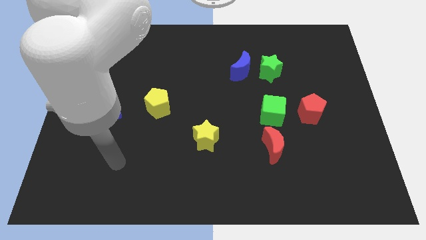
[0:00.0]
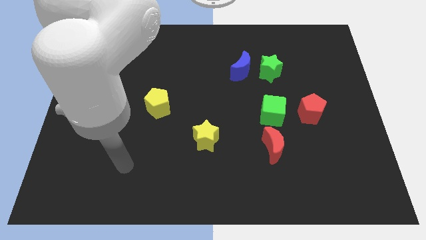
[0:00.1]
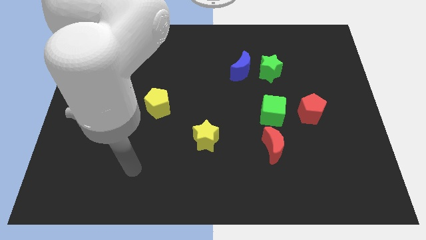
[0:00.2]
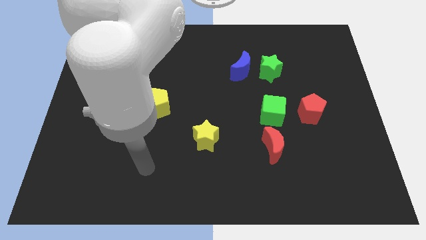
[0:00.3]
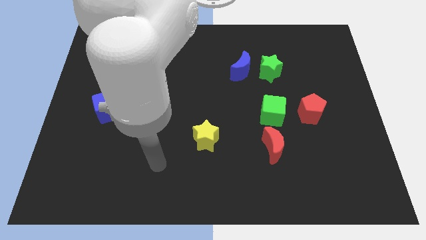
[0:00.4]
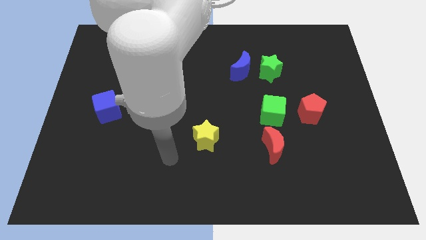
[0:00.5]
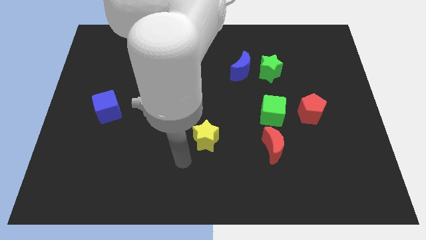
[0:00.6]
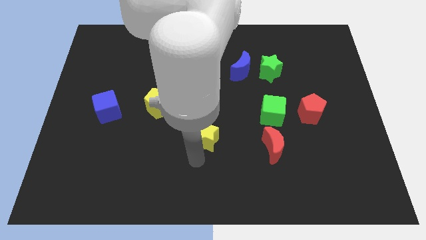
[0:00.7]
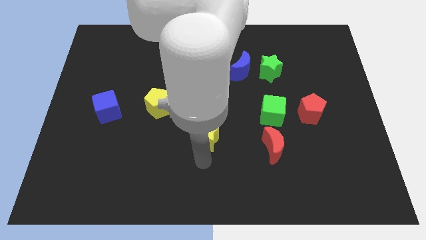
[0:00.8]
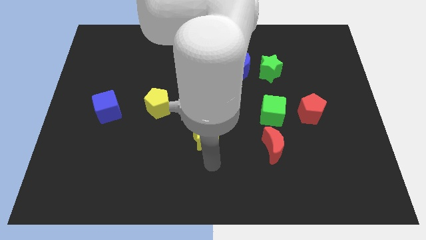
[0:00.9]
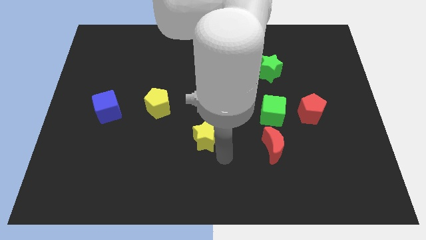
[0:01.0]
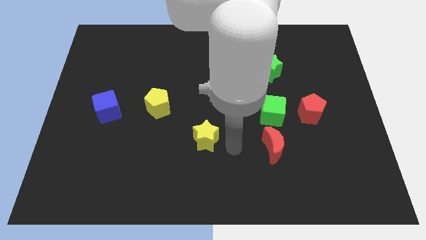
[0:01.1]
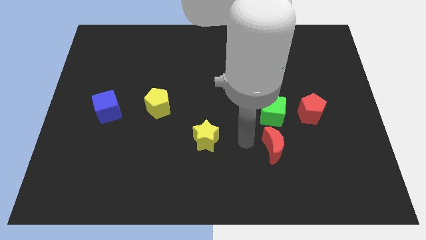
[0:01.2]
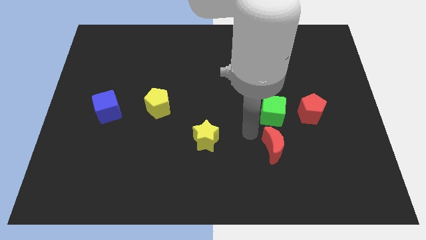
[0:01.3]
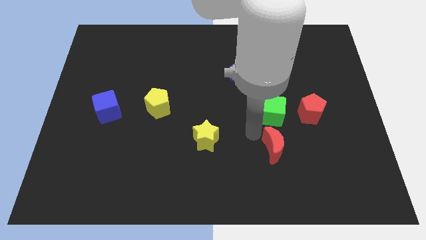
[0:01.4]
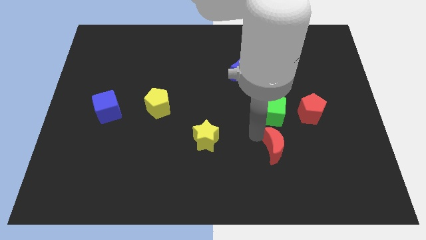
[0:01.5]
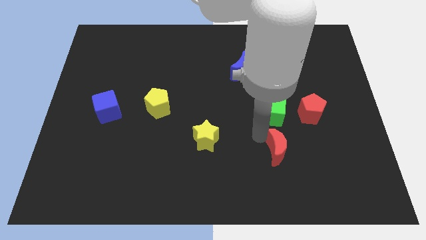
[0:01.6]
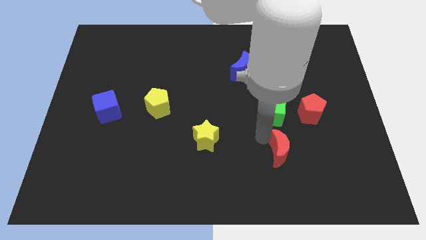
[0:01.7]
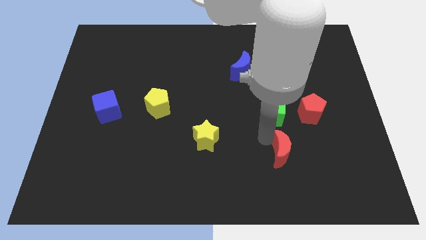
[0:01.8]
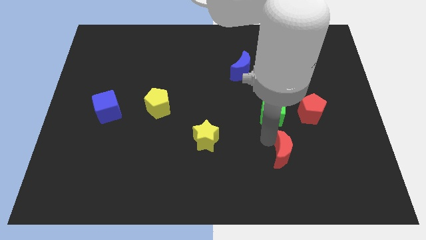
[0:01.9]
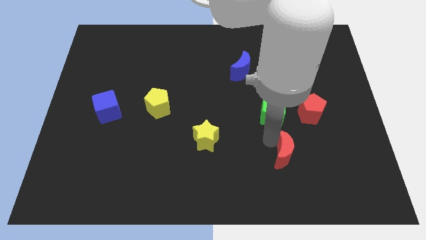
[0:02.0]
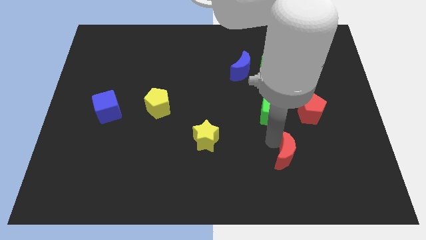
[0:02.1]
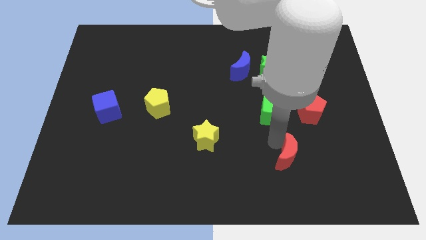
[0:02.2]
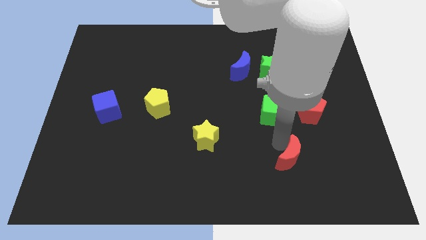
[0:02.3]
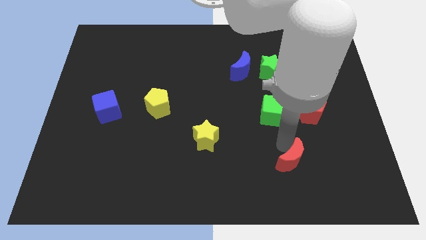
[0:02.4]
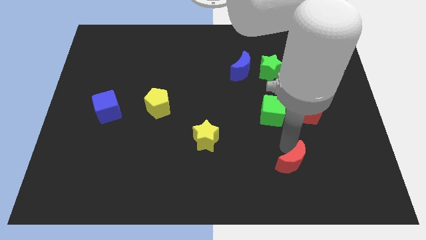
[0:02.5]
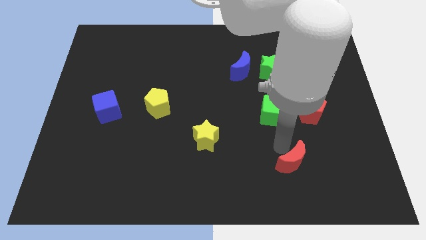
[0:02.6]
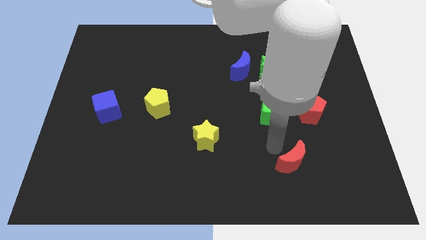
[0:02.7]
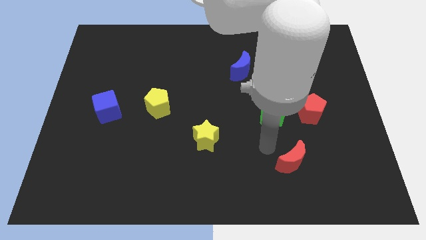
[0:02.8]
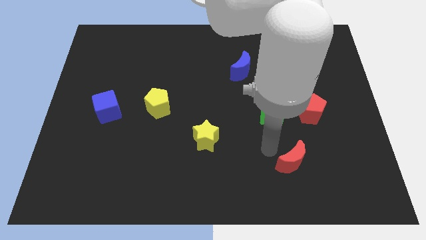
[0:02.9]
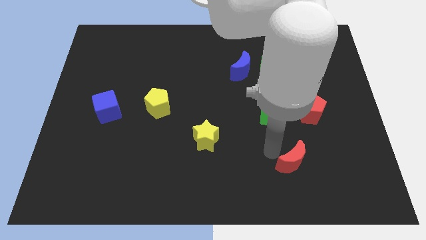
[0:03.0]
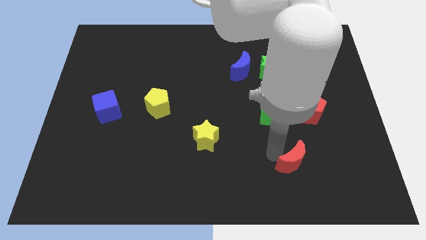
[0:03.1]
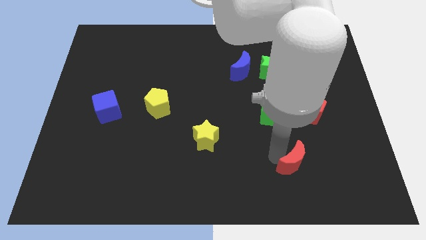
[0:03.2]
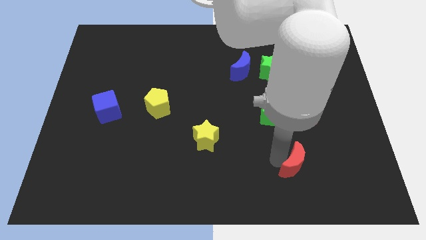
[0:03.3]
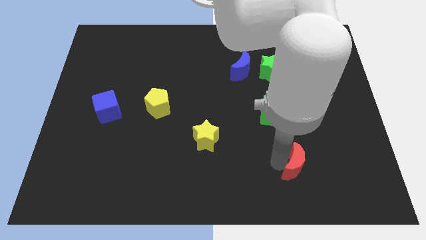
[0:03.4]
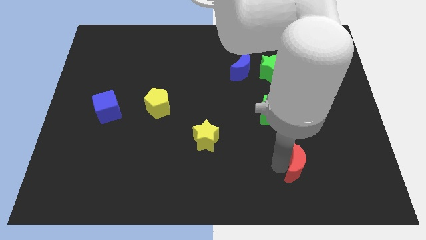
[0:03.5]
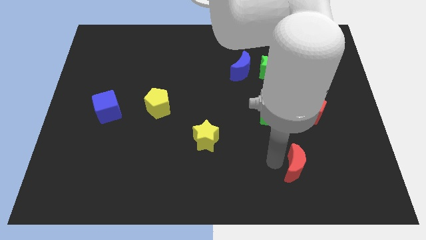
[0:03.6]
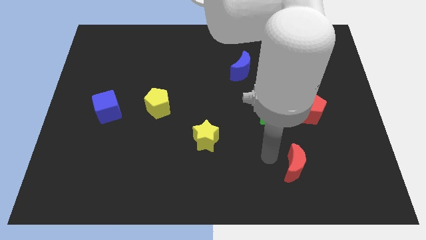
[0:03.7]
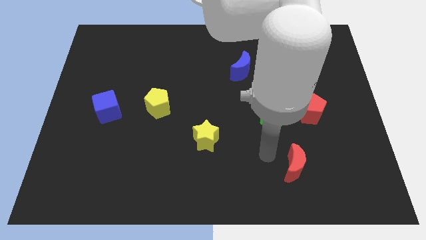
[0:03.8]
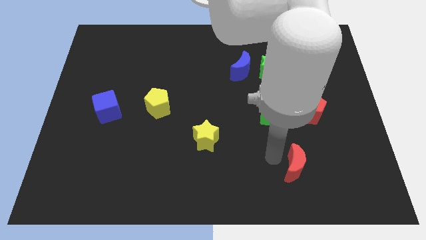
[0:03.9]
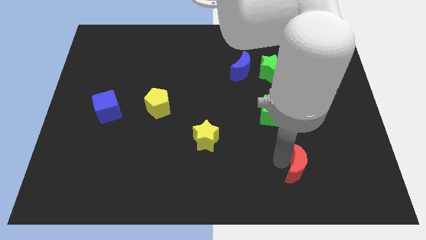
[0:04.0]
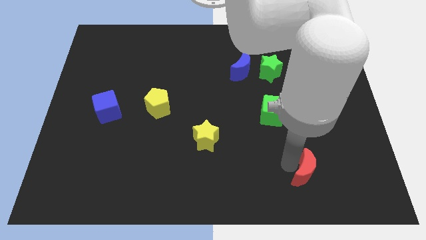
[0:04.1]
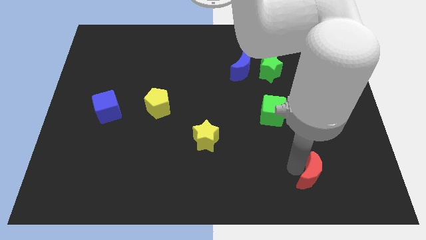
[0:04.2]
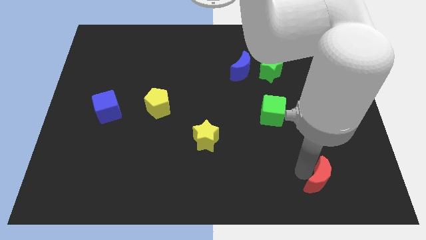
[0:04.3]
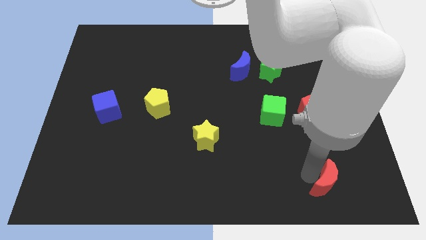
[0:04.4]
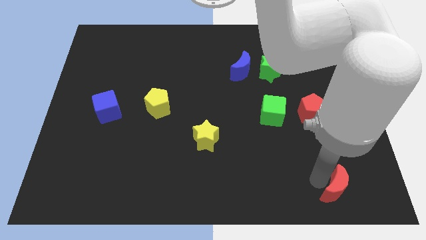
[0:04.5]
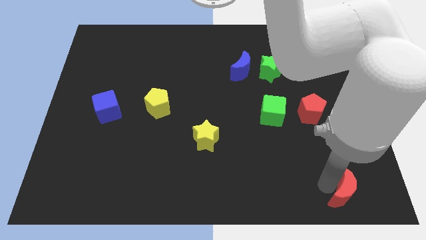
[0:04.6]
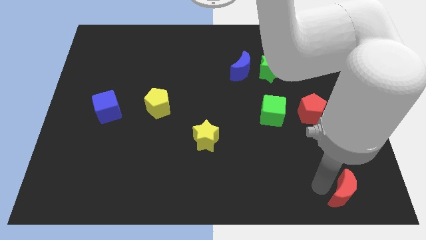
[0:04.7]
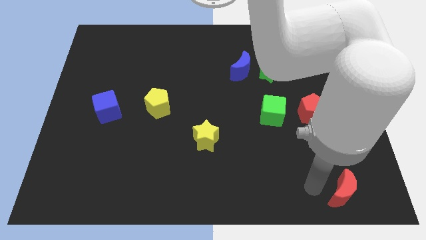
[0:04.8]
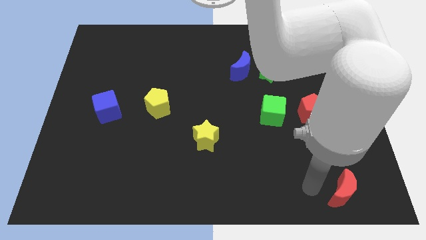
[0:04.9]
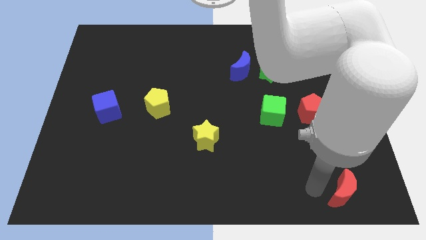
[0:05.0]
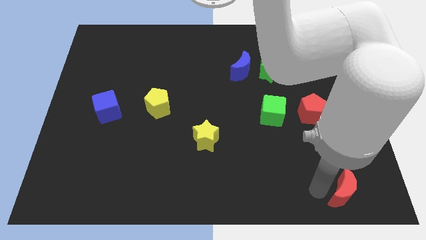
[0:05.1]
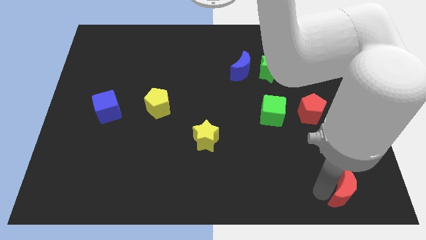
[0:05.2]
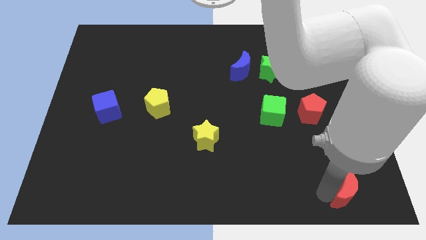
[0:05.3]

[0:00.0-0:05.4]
slide the red moon to the bottom right

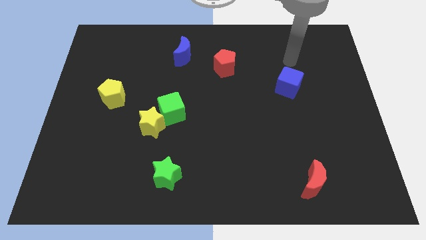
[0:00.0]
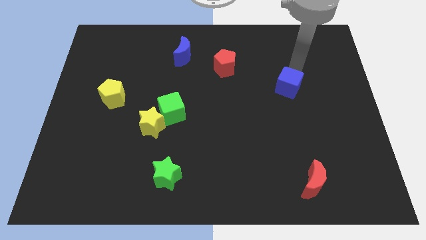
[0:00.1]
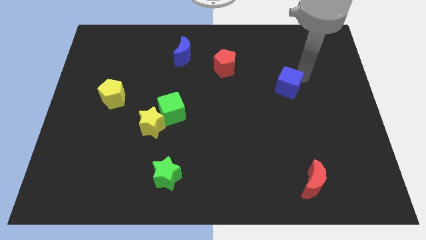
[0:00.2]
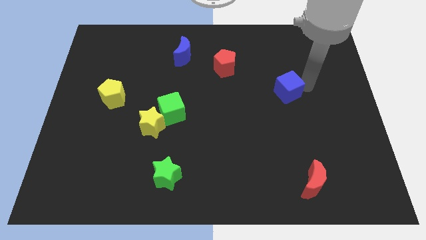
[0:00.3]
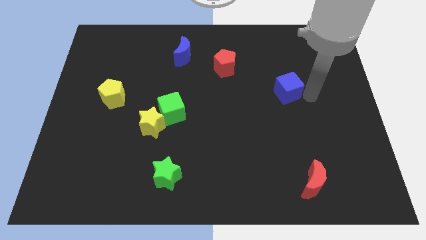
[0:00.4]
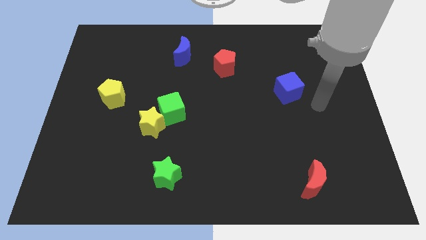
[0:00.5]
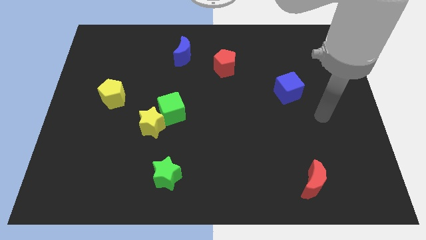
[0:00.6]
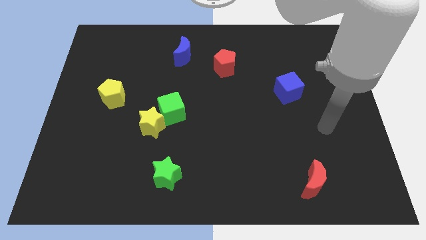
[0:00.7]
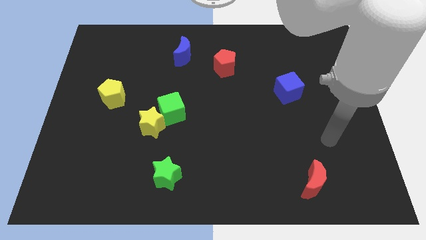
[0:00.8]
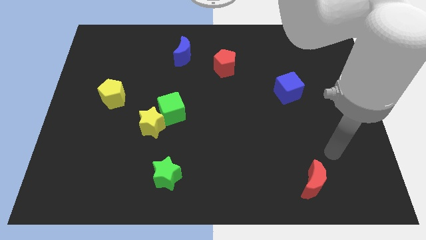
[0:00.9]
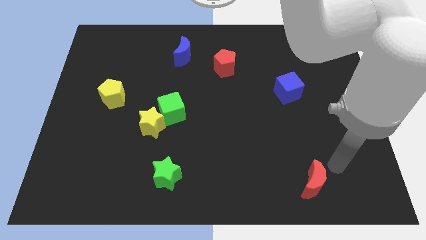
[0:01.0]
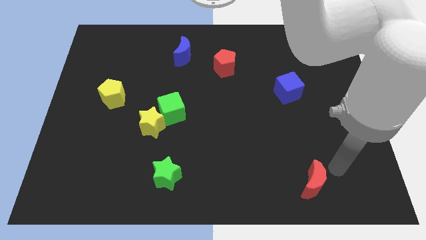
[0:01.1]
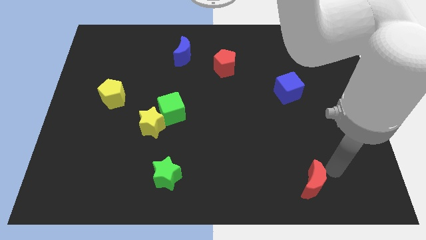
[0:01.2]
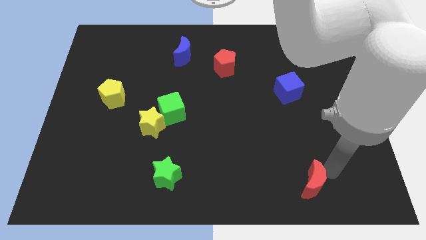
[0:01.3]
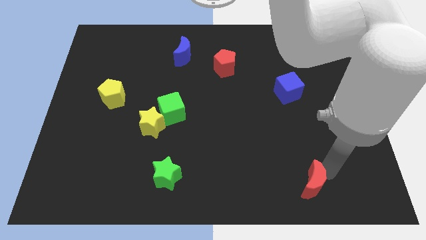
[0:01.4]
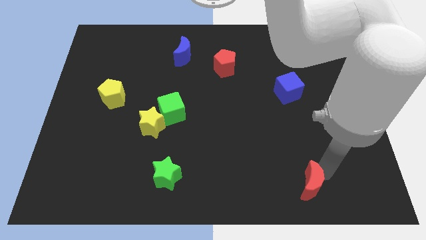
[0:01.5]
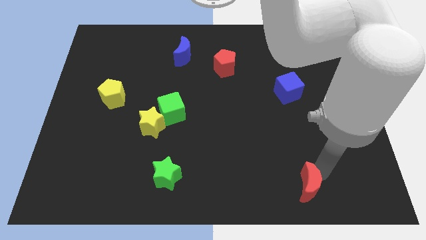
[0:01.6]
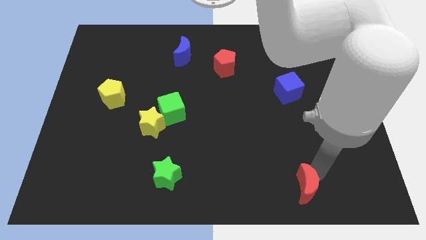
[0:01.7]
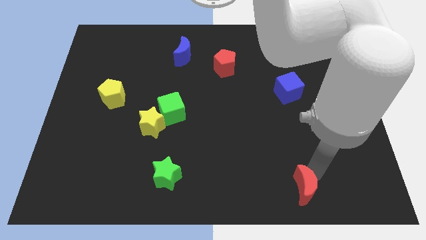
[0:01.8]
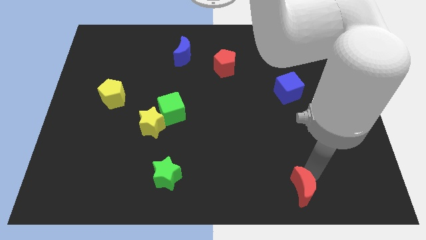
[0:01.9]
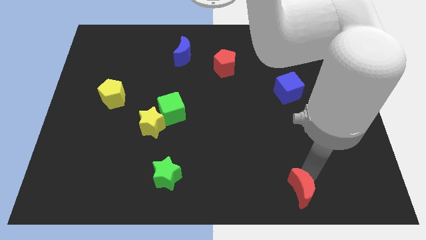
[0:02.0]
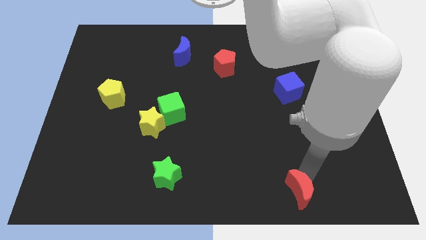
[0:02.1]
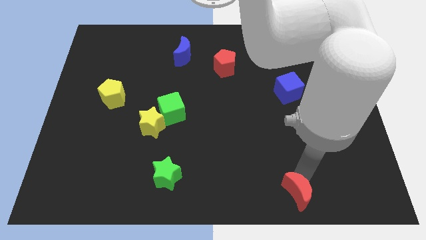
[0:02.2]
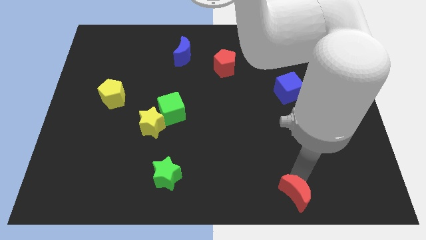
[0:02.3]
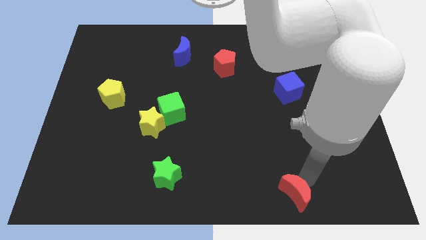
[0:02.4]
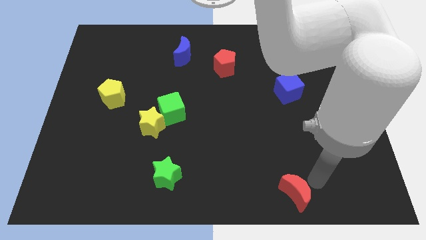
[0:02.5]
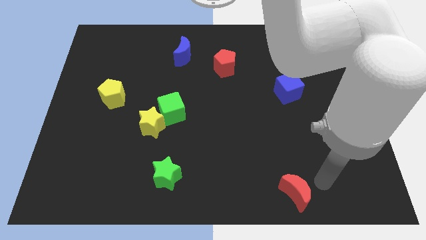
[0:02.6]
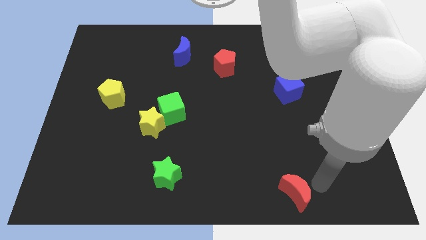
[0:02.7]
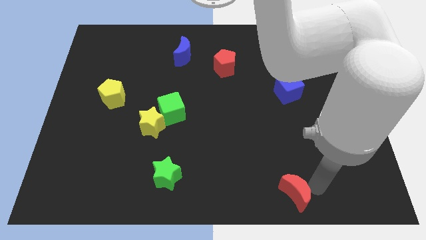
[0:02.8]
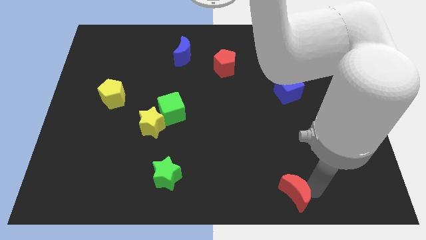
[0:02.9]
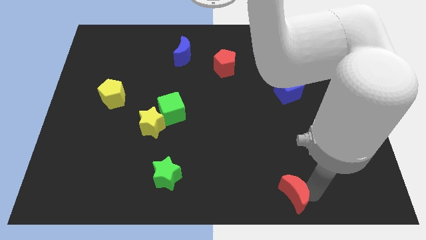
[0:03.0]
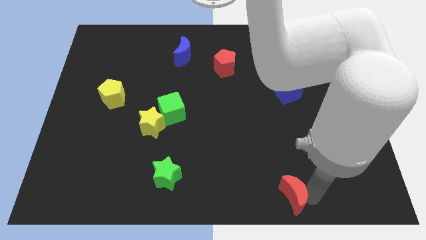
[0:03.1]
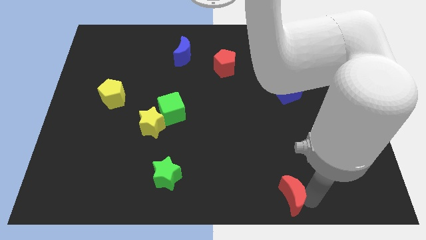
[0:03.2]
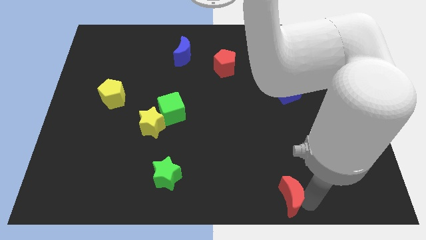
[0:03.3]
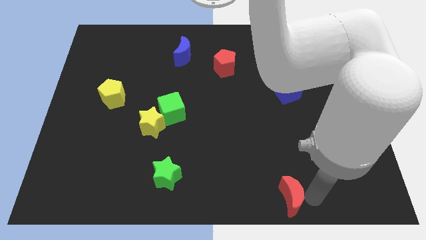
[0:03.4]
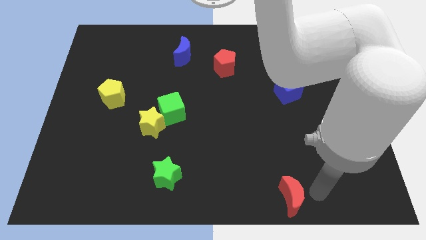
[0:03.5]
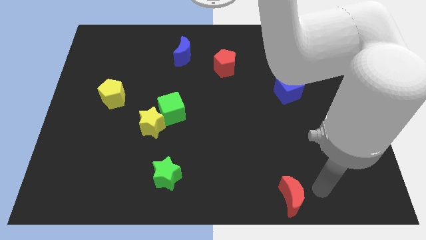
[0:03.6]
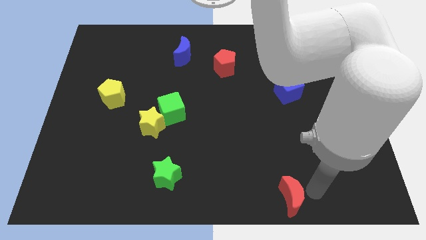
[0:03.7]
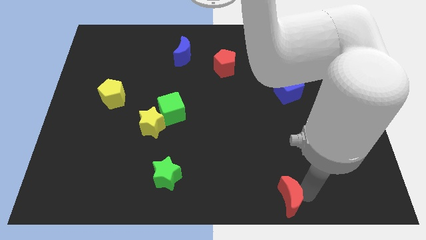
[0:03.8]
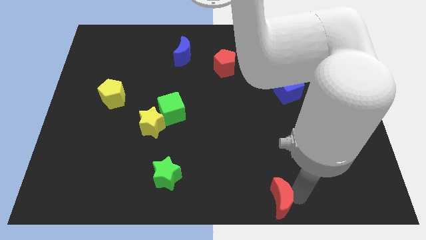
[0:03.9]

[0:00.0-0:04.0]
slide the red moon to the bottom
